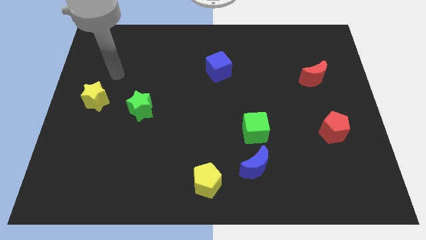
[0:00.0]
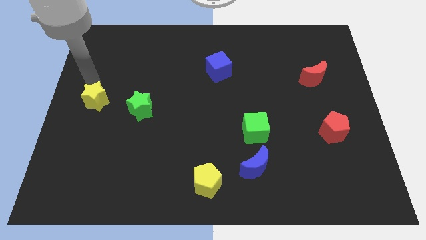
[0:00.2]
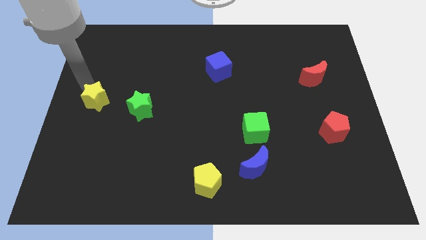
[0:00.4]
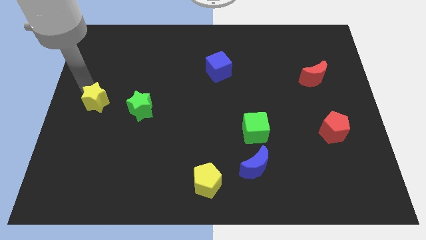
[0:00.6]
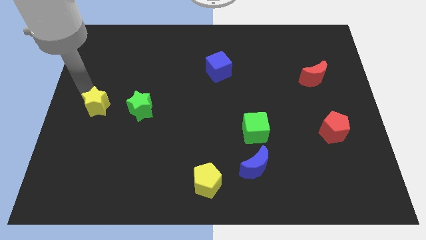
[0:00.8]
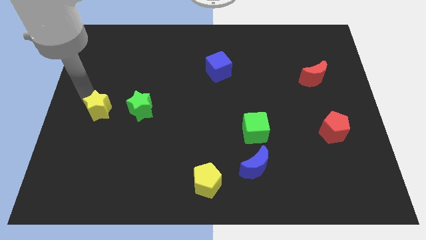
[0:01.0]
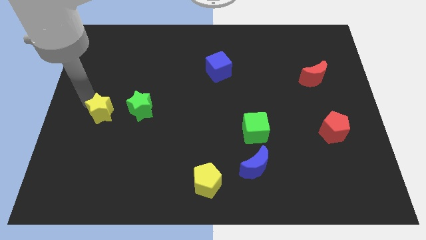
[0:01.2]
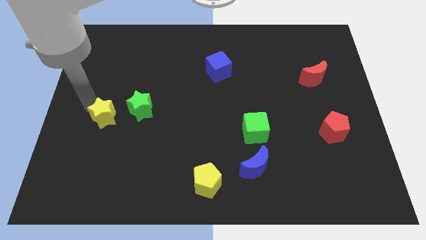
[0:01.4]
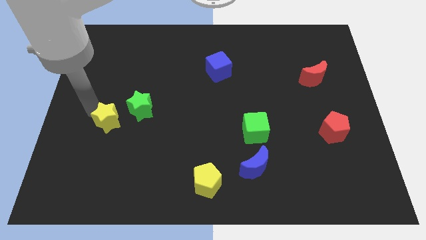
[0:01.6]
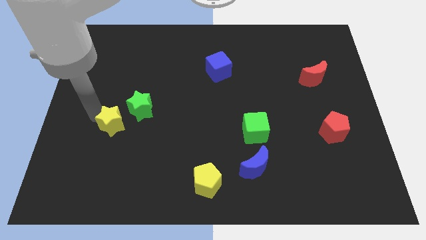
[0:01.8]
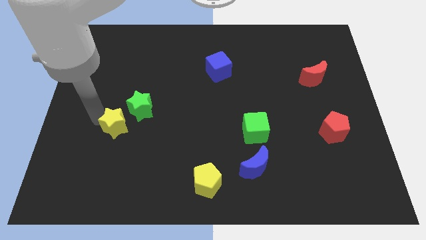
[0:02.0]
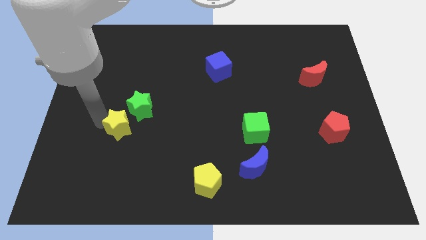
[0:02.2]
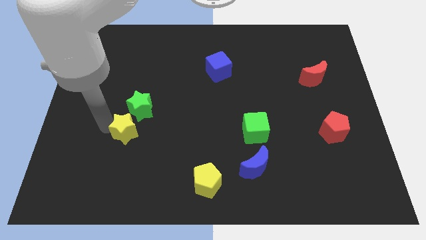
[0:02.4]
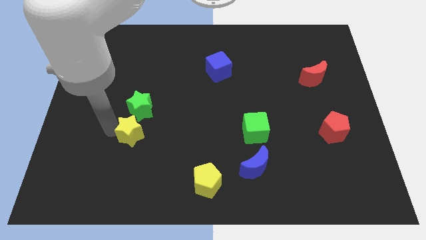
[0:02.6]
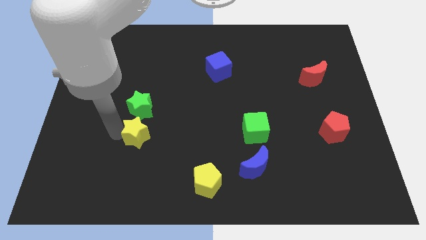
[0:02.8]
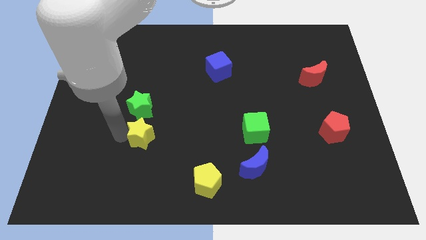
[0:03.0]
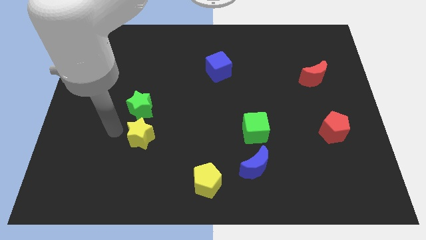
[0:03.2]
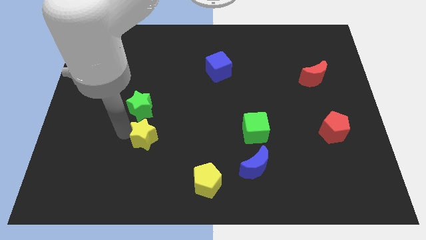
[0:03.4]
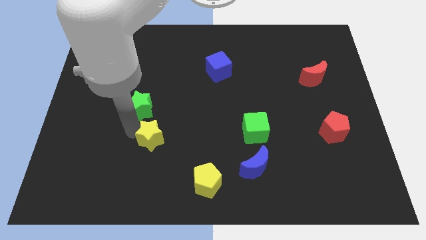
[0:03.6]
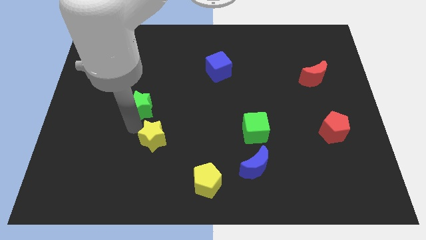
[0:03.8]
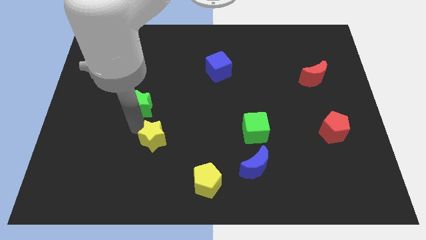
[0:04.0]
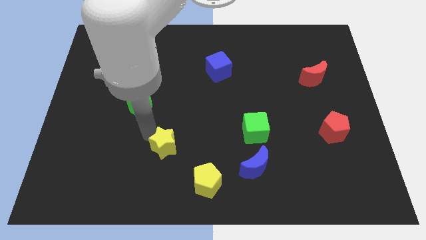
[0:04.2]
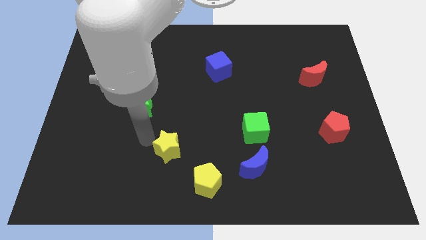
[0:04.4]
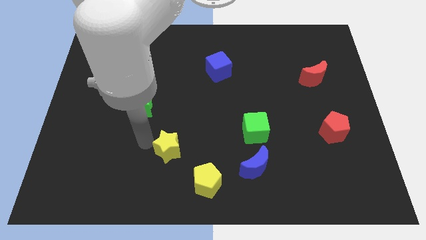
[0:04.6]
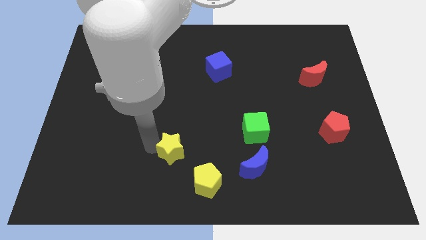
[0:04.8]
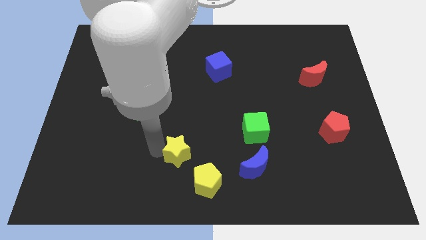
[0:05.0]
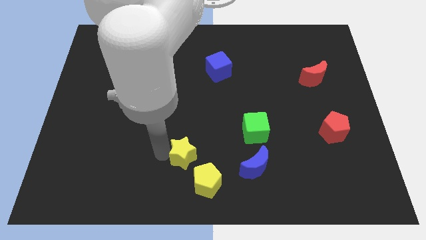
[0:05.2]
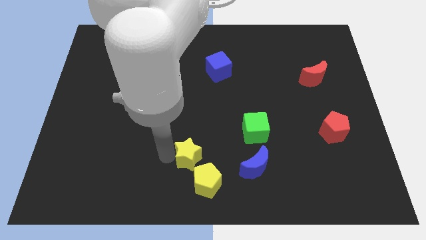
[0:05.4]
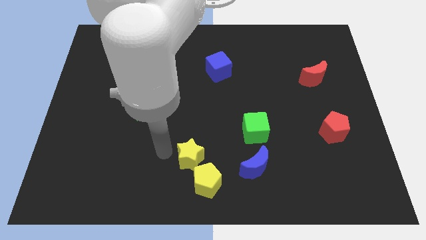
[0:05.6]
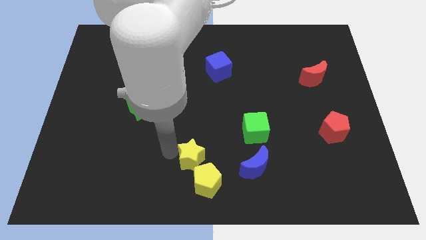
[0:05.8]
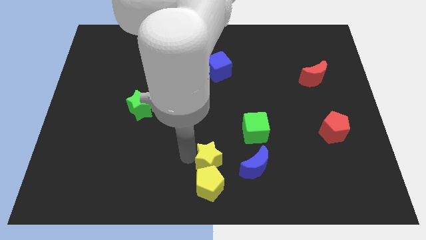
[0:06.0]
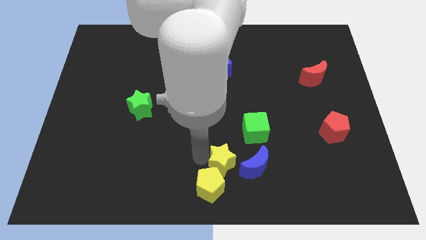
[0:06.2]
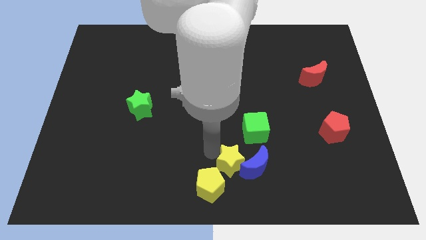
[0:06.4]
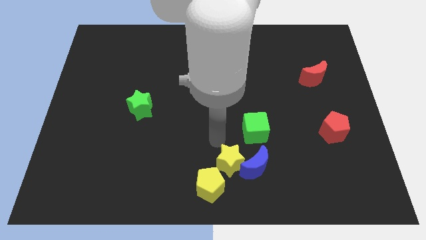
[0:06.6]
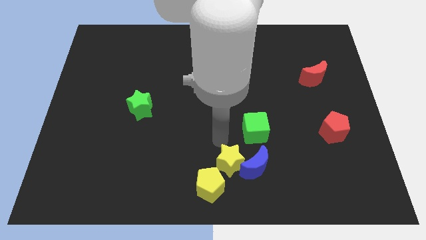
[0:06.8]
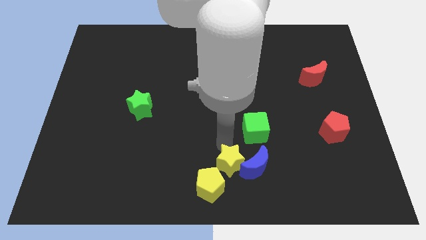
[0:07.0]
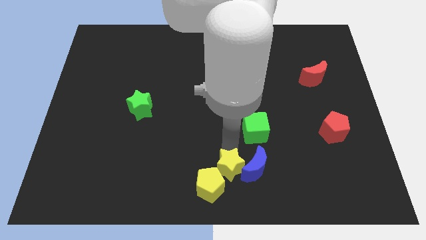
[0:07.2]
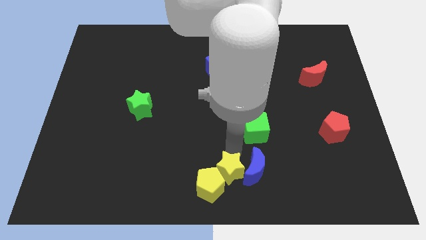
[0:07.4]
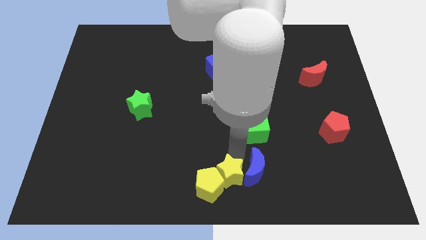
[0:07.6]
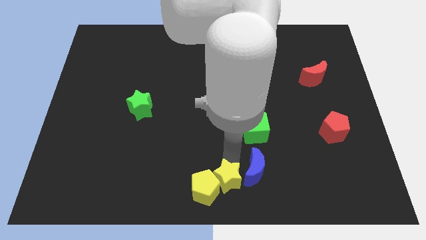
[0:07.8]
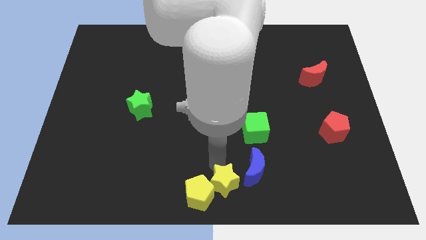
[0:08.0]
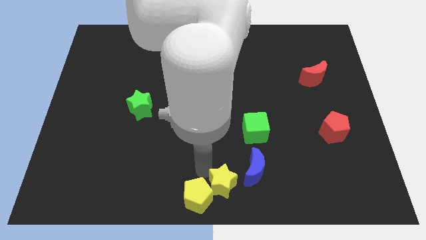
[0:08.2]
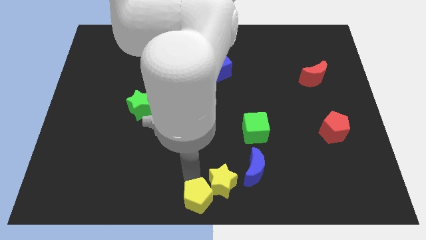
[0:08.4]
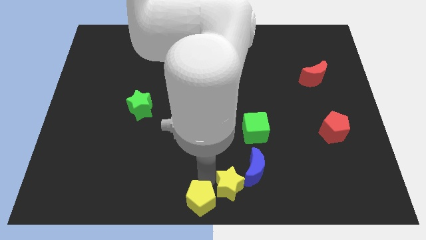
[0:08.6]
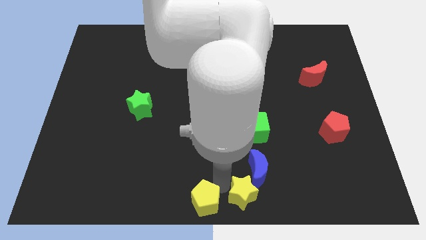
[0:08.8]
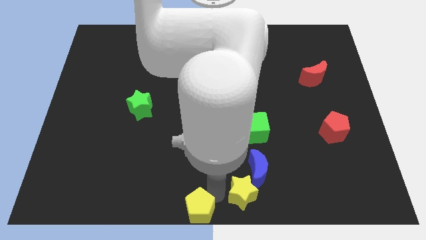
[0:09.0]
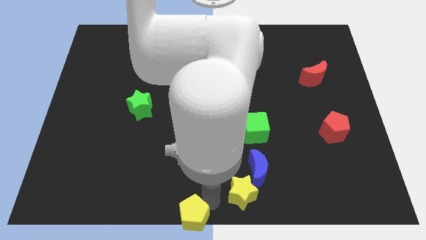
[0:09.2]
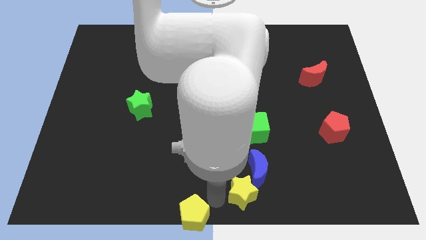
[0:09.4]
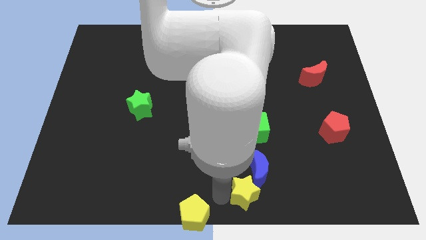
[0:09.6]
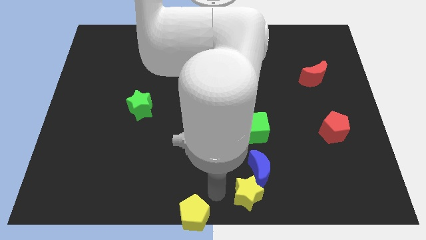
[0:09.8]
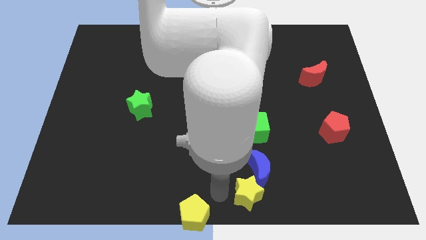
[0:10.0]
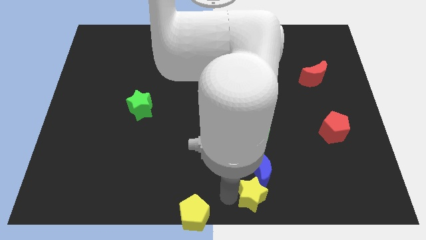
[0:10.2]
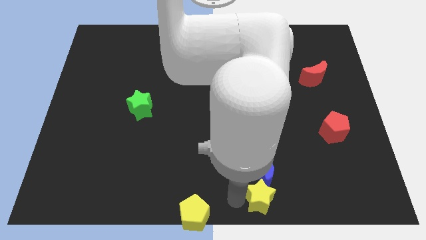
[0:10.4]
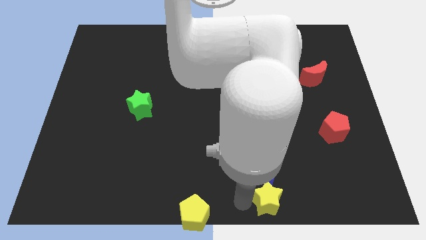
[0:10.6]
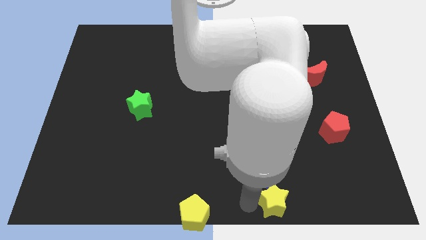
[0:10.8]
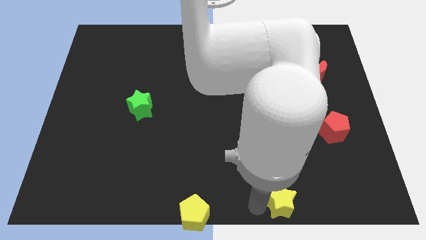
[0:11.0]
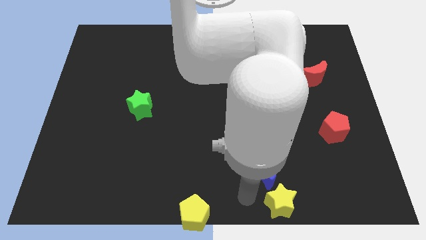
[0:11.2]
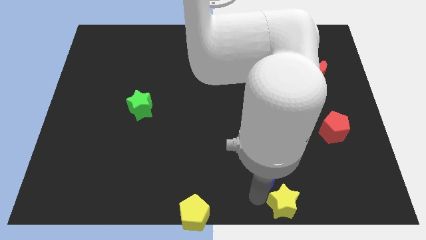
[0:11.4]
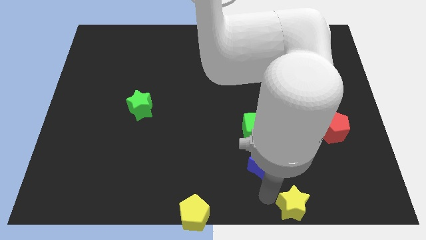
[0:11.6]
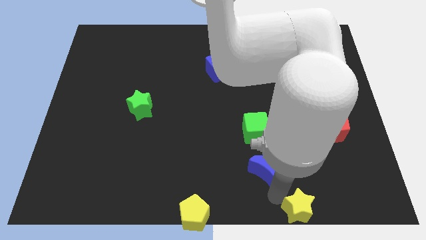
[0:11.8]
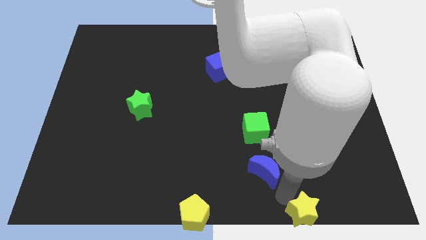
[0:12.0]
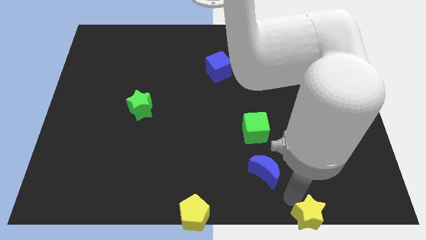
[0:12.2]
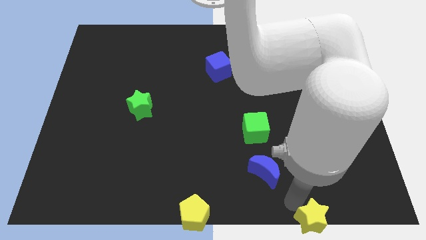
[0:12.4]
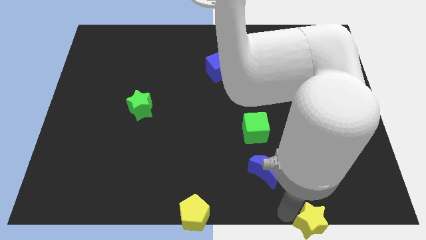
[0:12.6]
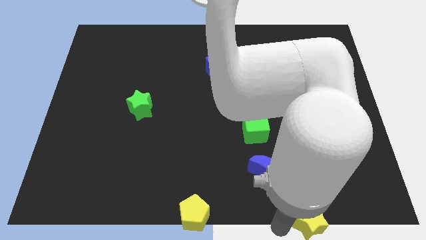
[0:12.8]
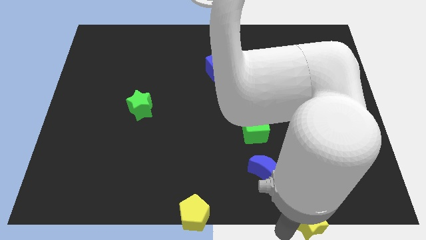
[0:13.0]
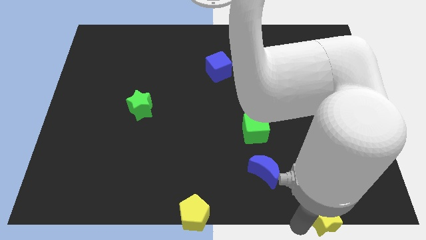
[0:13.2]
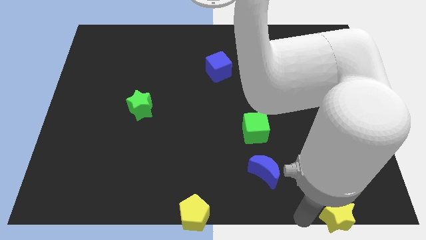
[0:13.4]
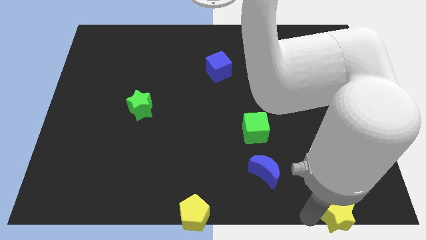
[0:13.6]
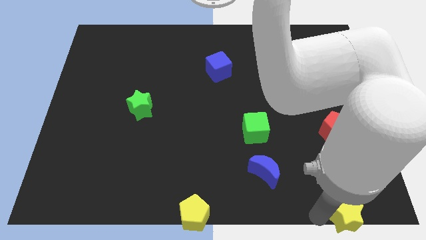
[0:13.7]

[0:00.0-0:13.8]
push the yellow star to the bottom right corner
